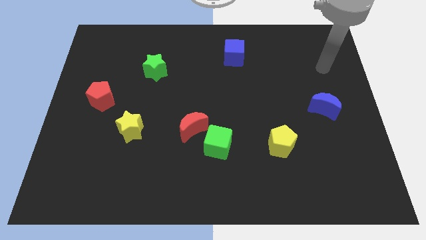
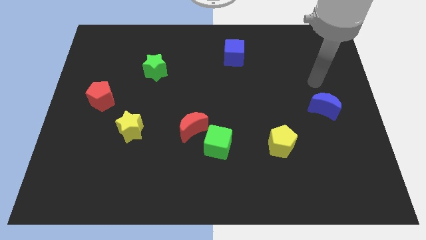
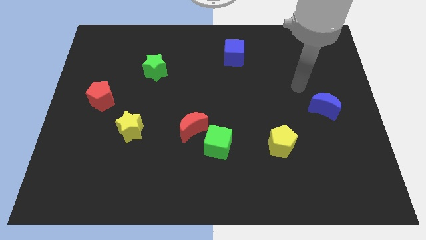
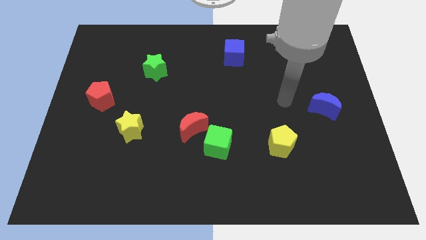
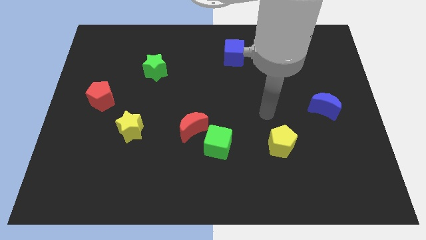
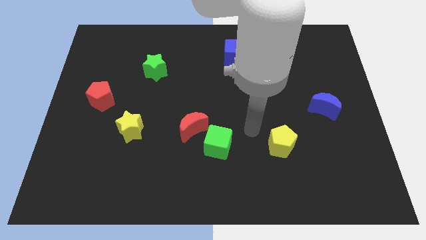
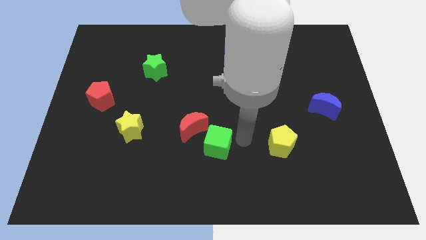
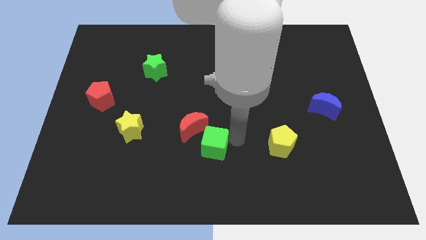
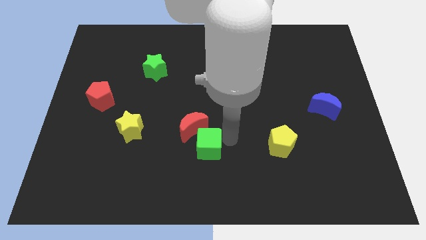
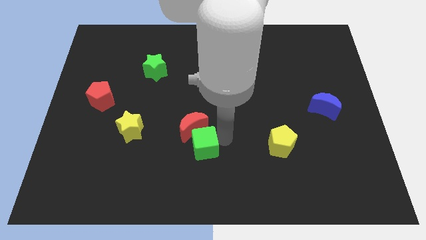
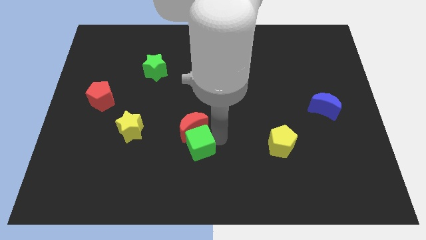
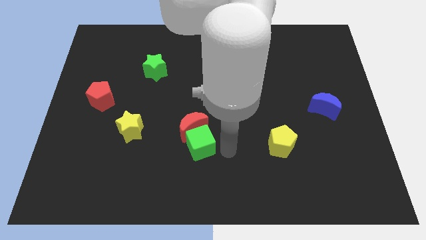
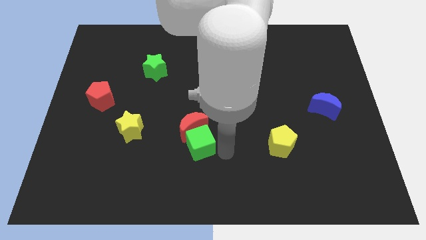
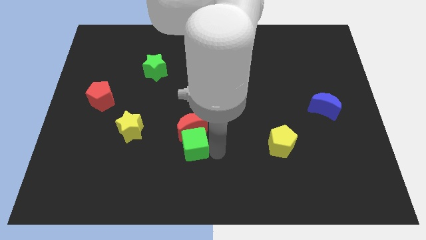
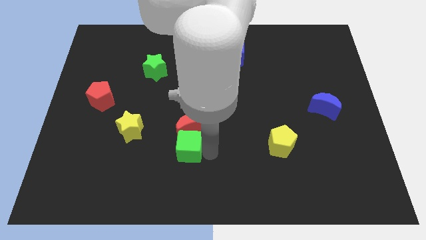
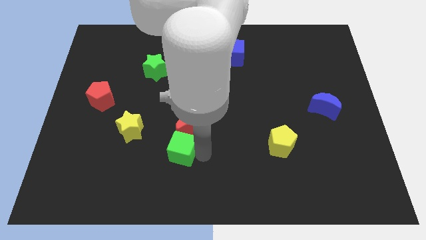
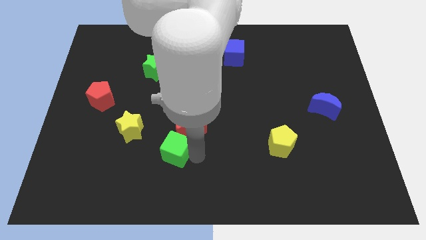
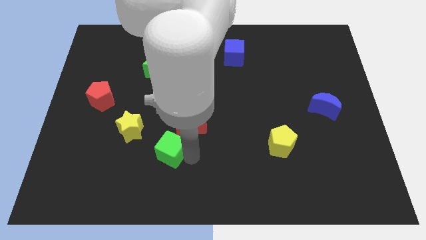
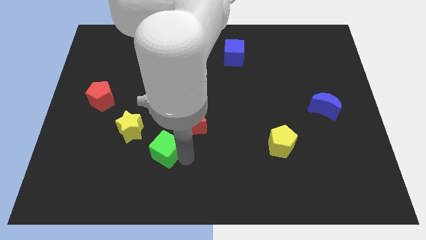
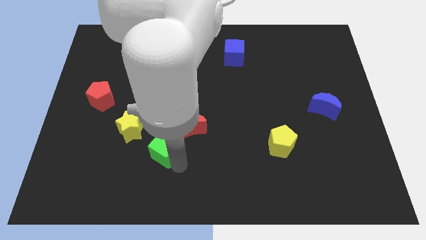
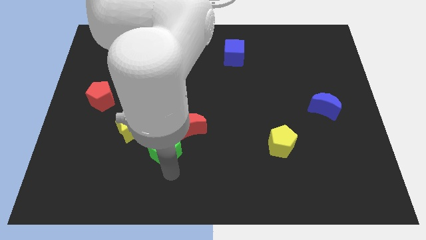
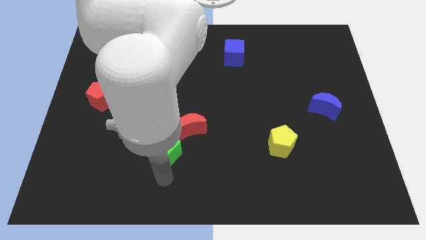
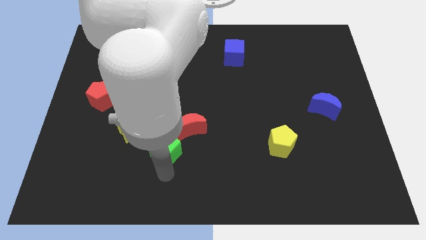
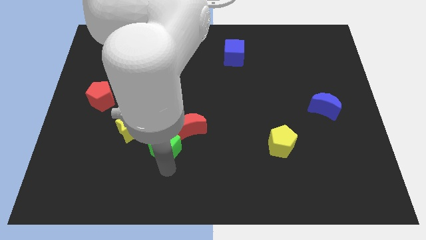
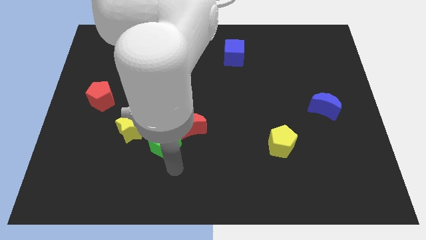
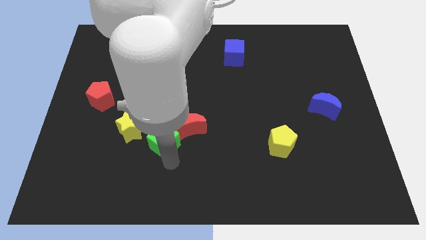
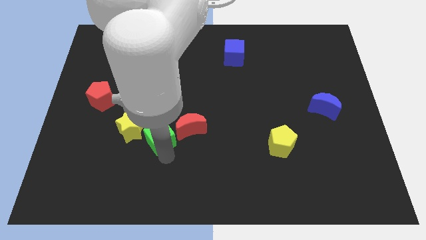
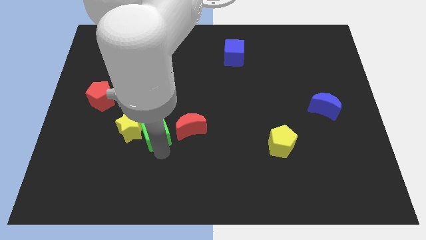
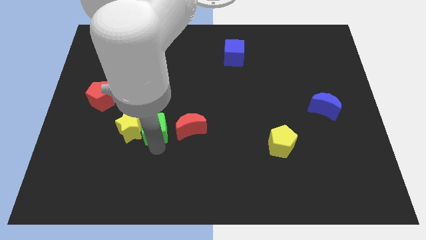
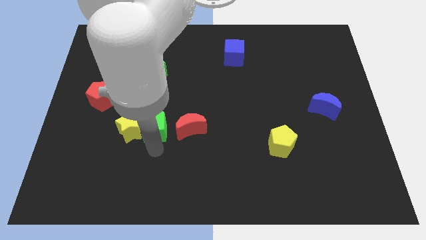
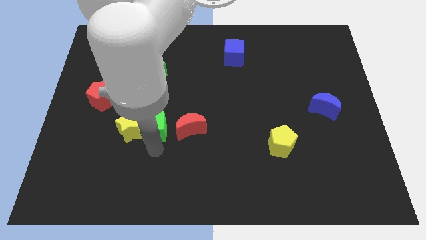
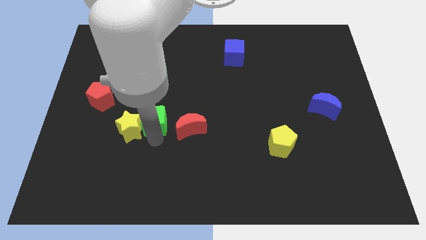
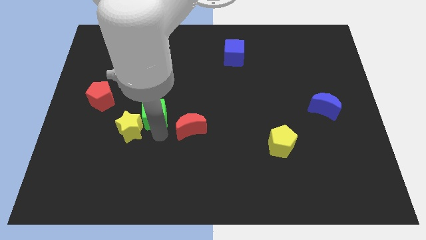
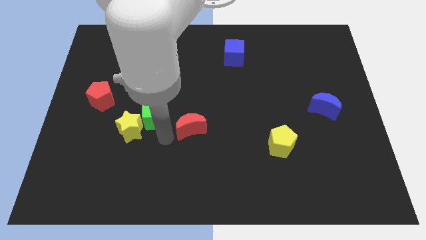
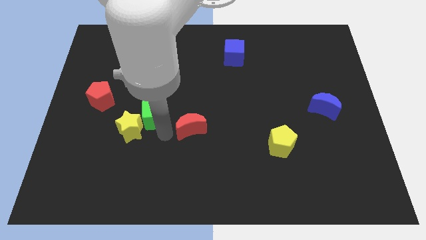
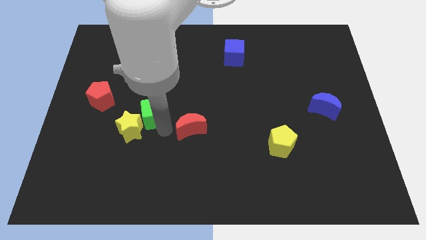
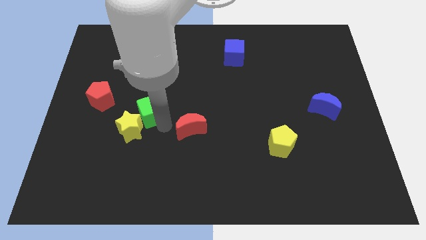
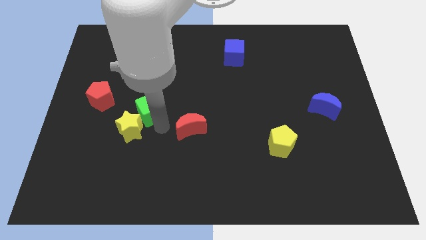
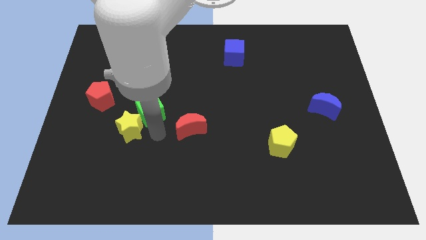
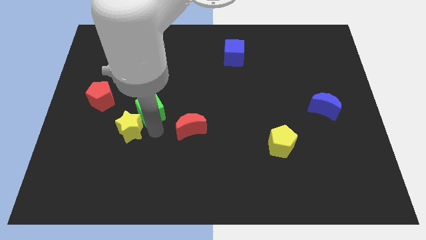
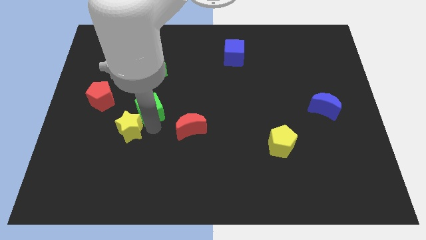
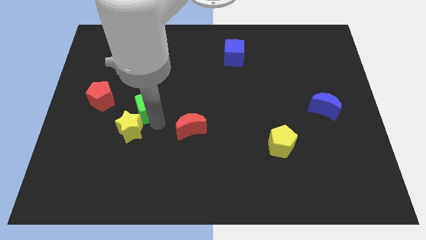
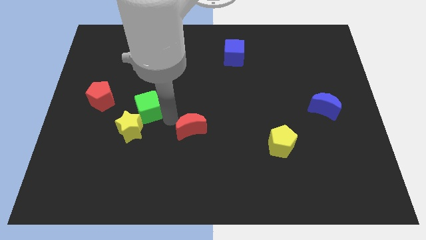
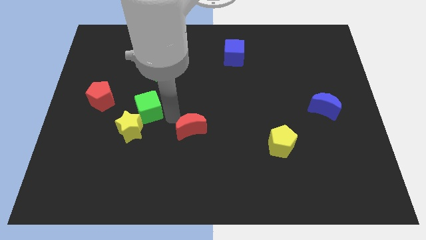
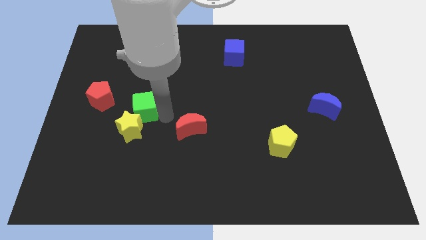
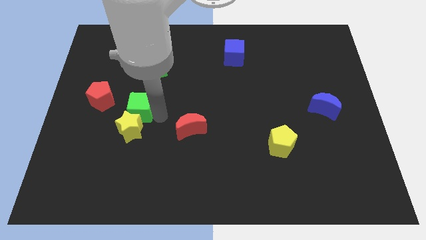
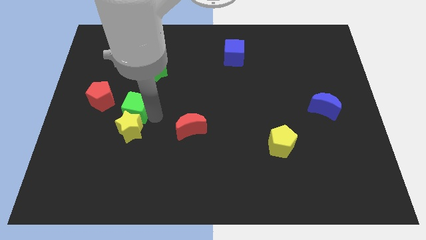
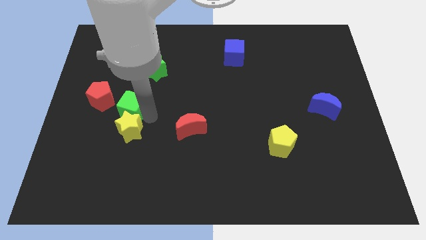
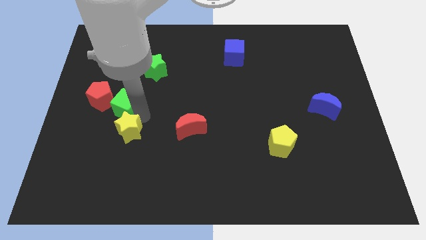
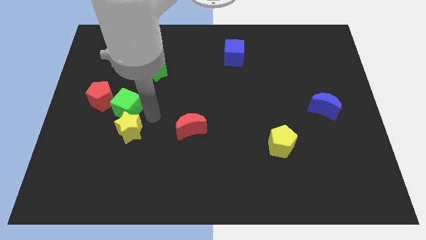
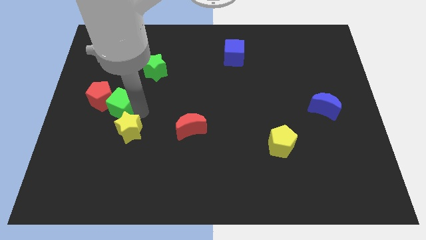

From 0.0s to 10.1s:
move the green cube to the red pentagon

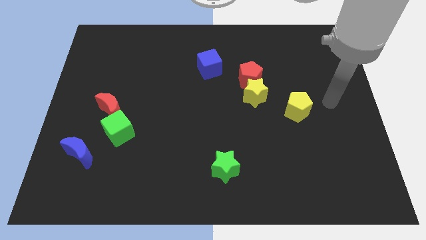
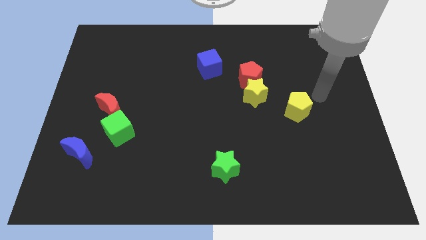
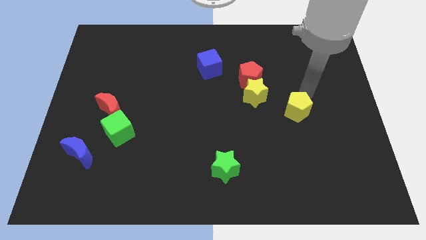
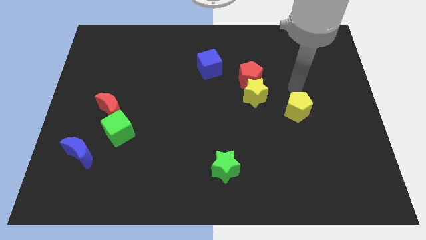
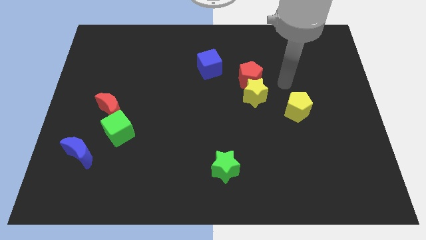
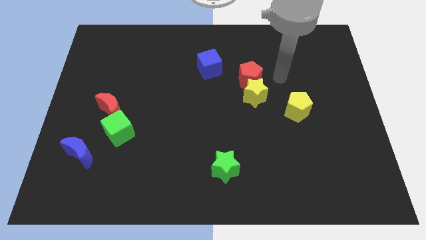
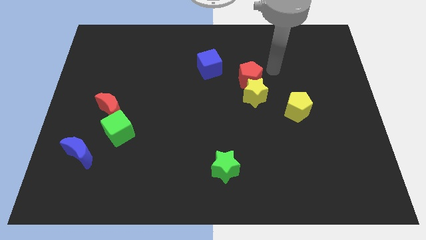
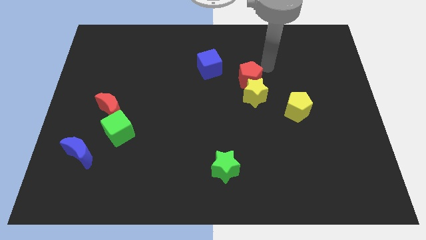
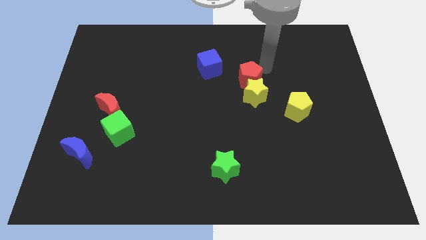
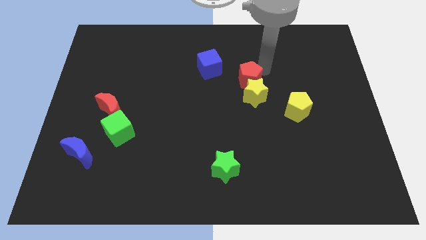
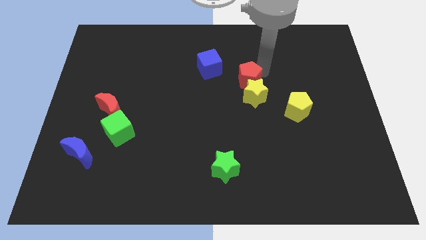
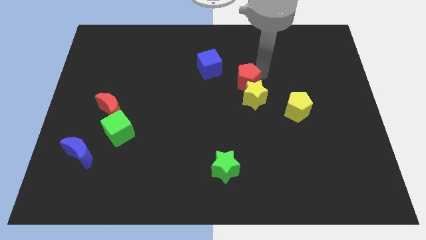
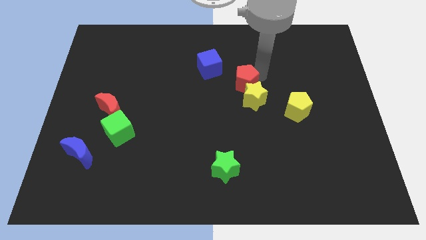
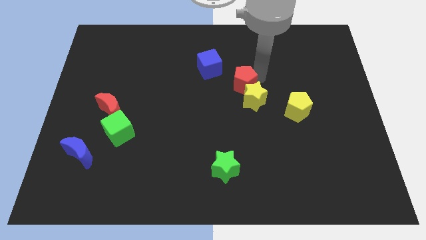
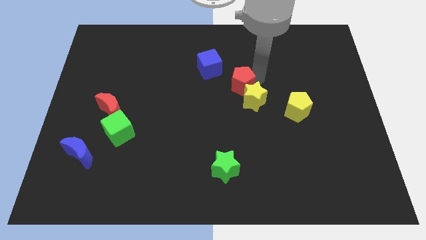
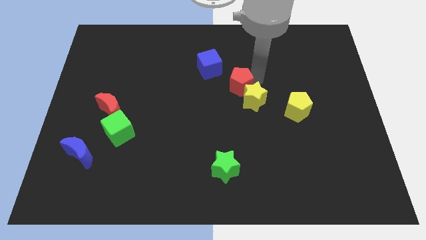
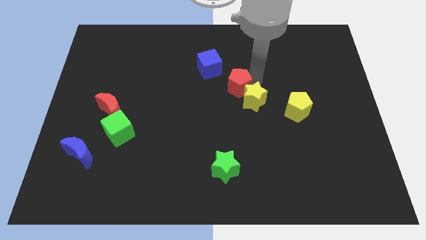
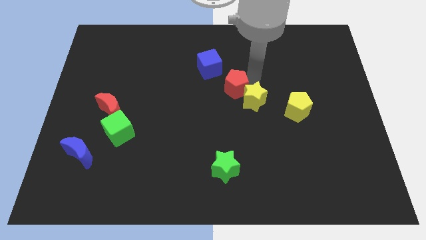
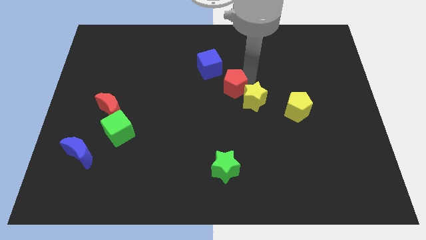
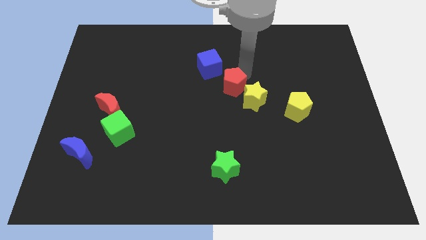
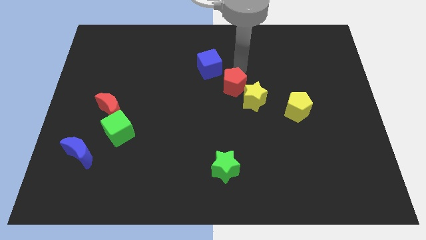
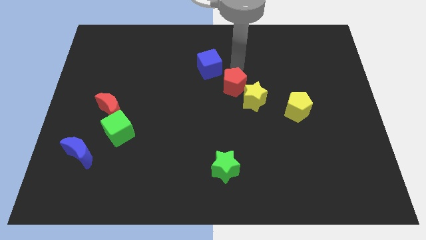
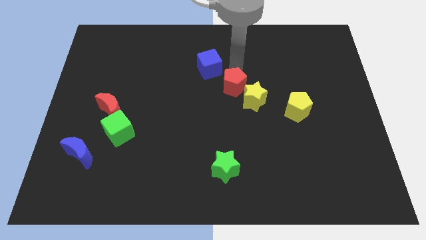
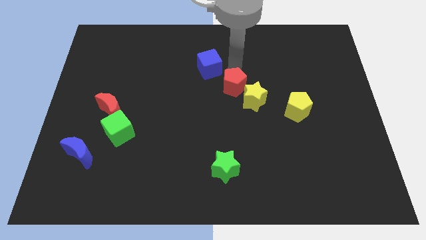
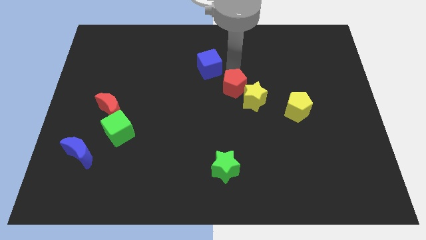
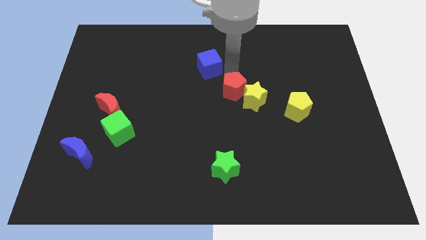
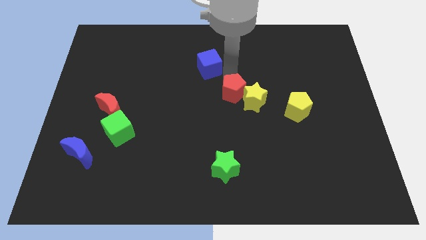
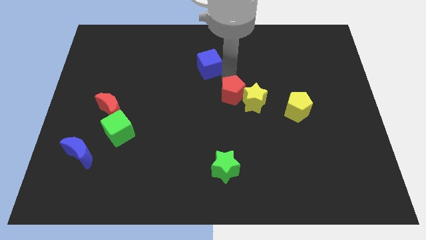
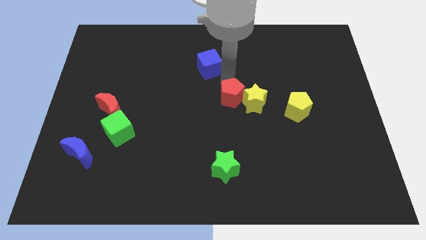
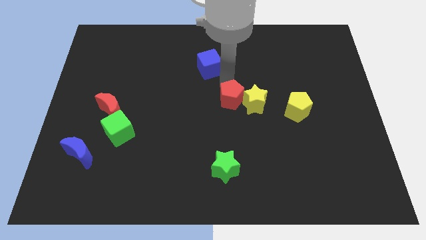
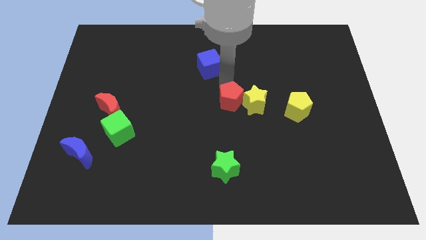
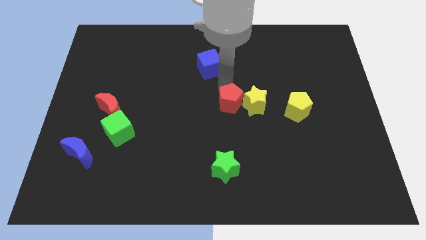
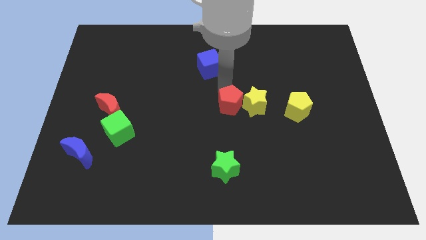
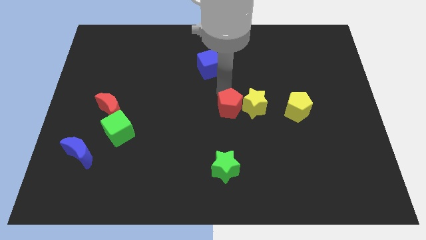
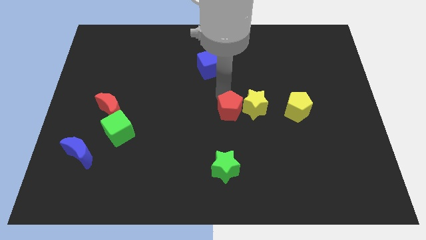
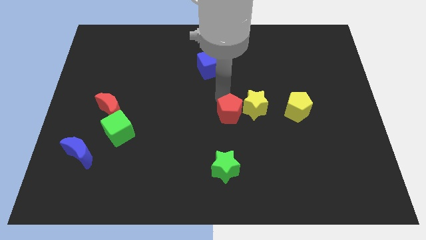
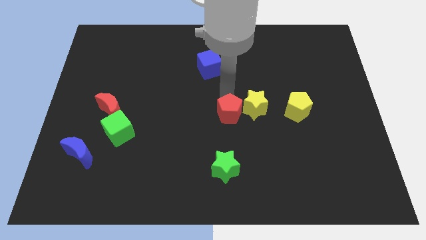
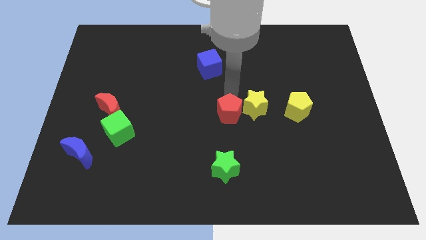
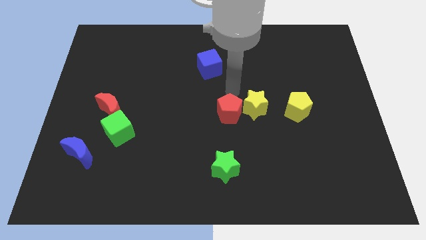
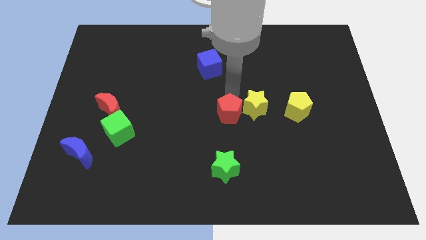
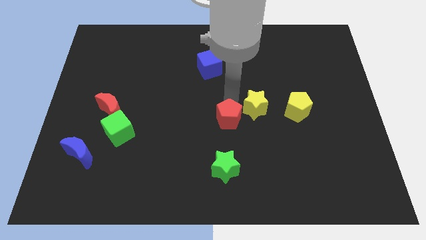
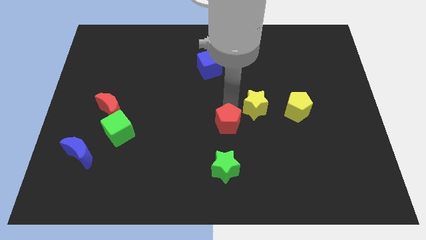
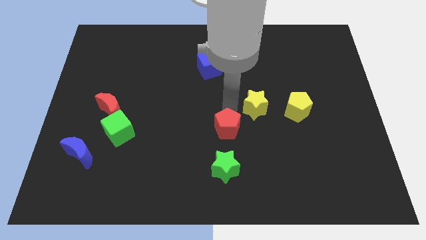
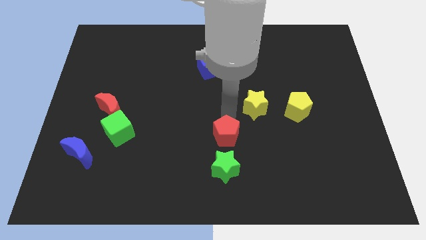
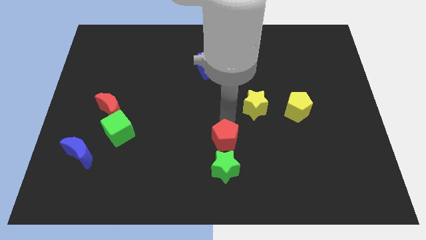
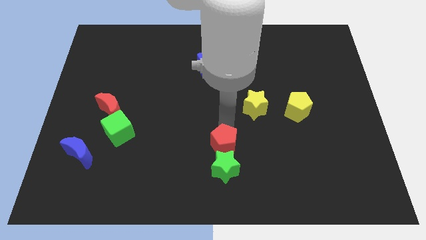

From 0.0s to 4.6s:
move the red pentagon to the green star
